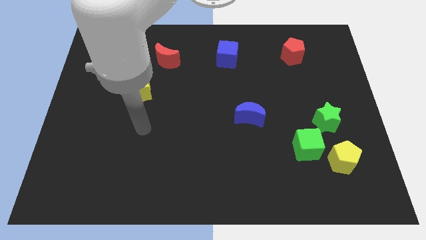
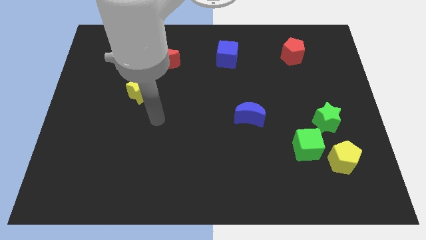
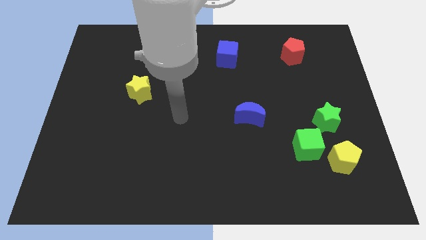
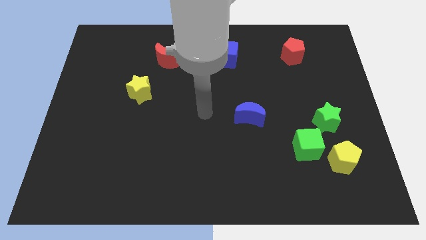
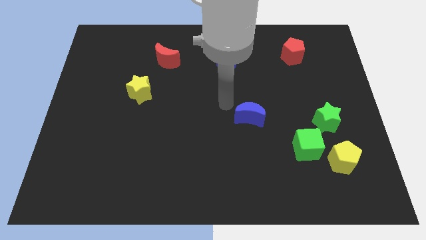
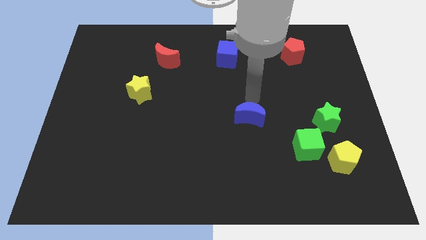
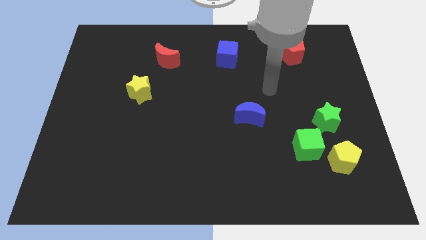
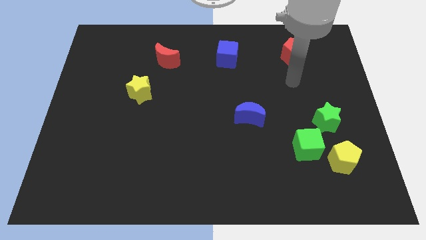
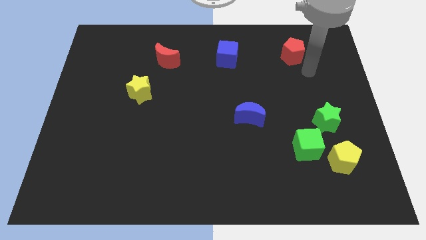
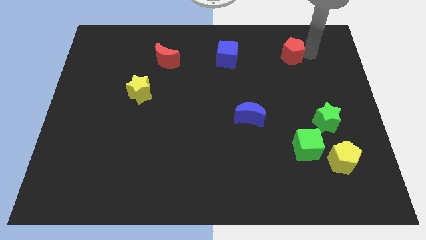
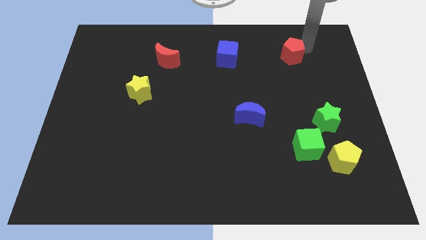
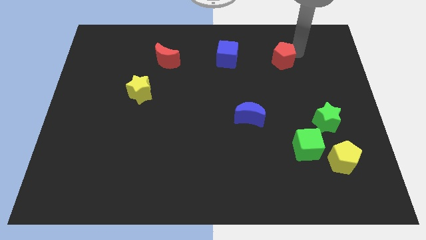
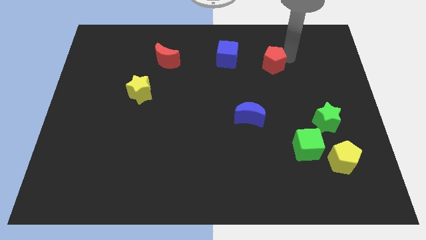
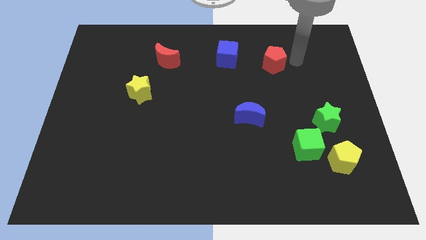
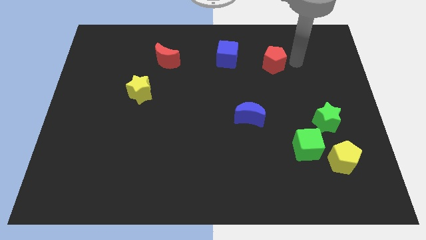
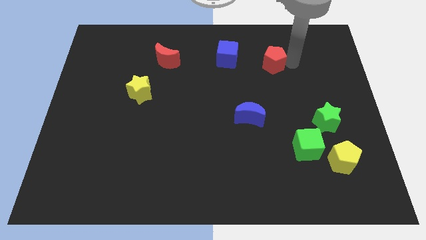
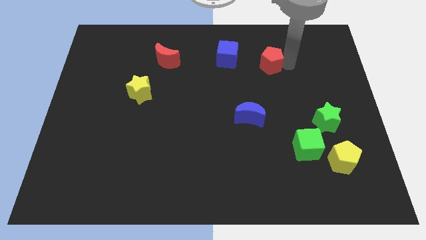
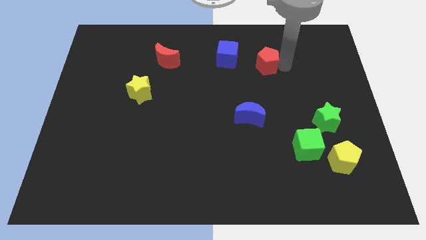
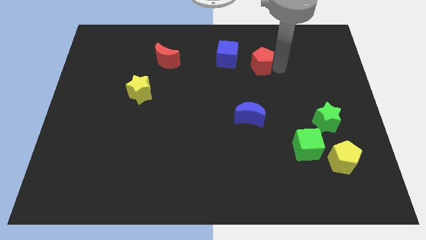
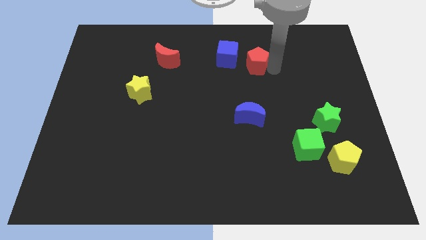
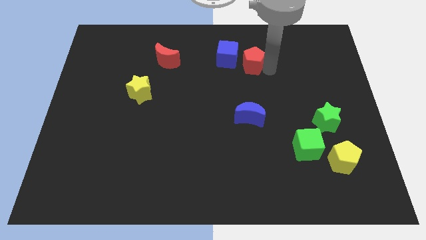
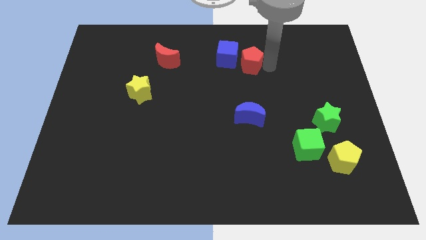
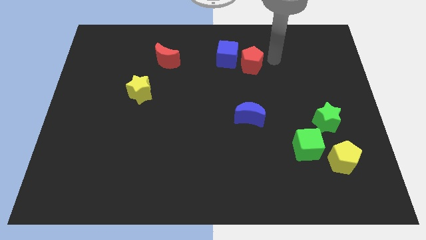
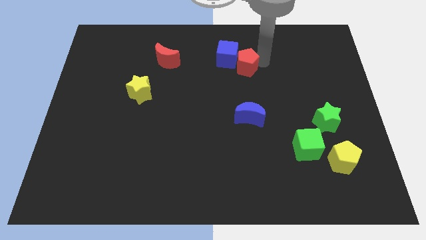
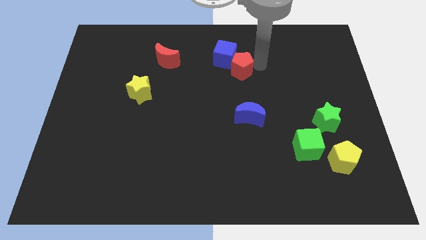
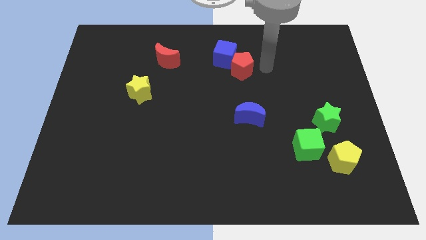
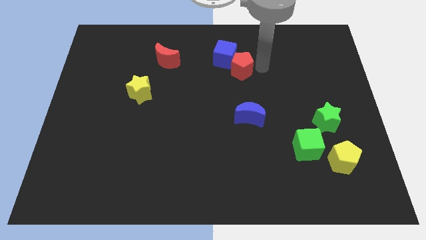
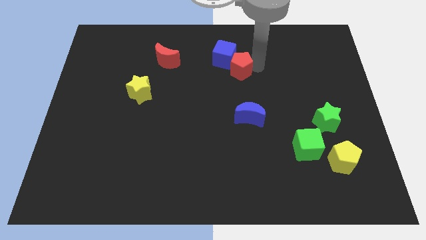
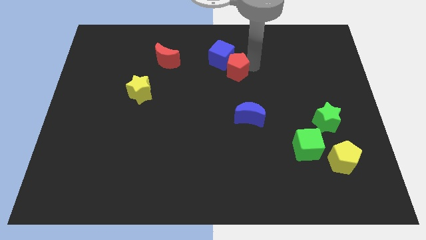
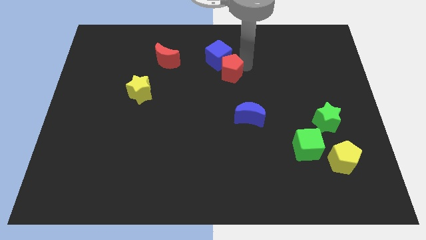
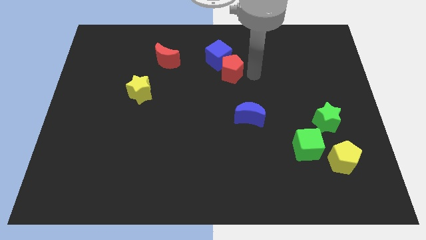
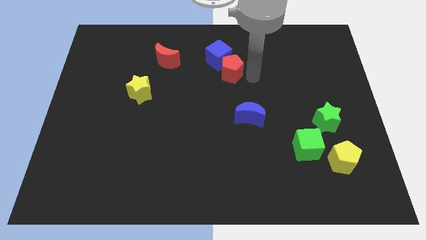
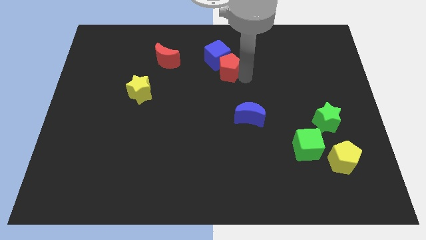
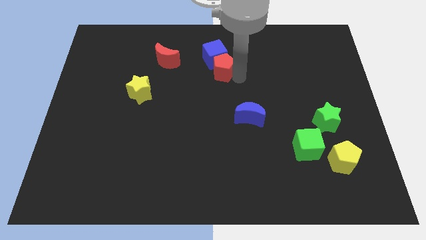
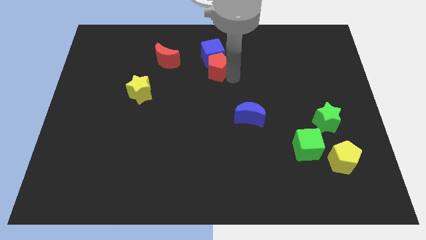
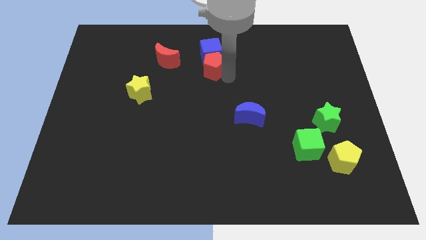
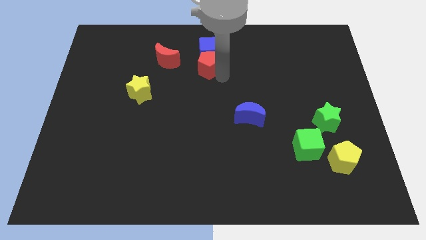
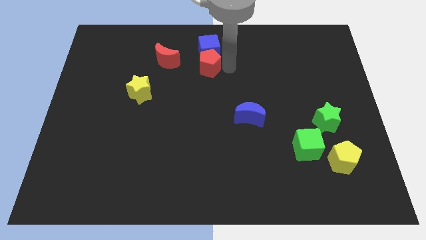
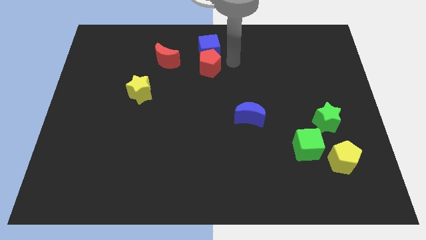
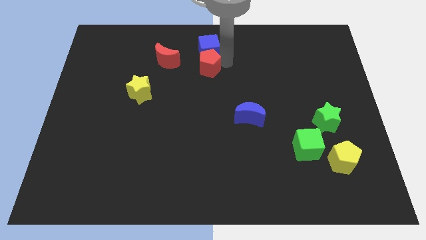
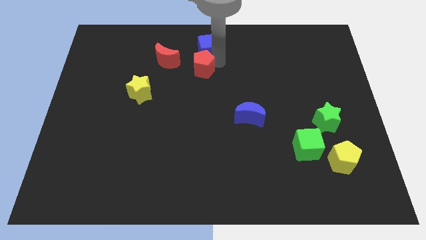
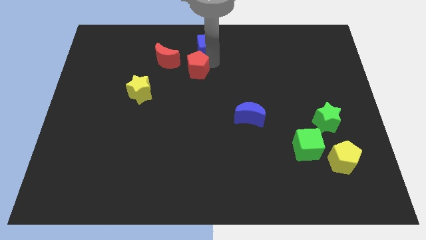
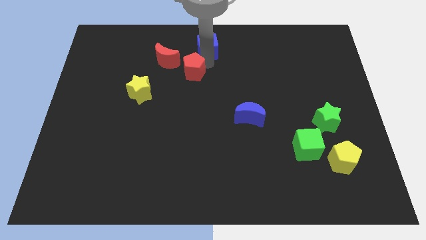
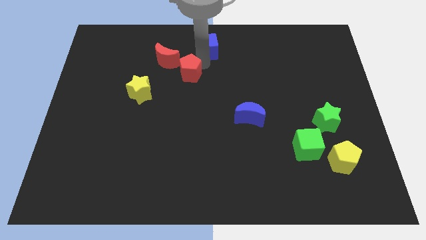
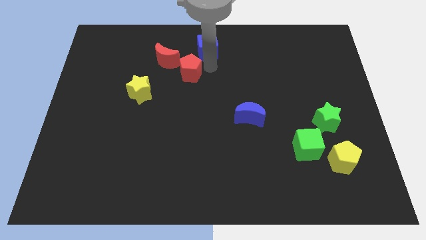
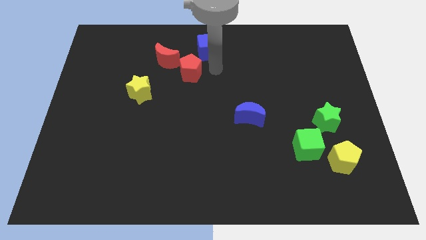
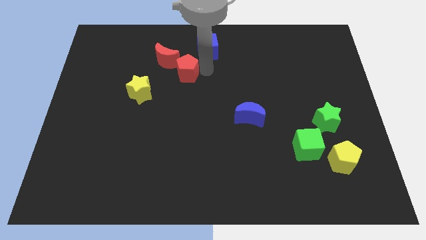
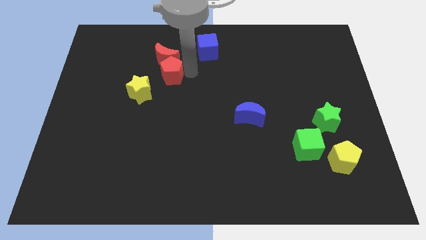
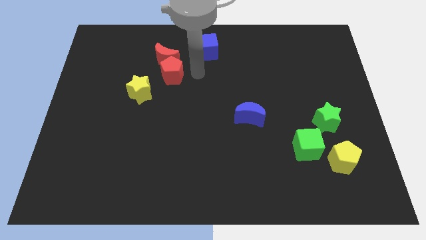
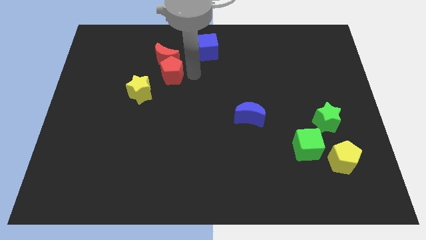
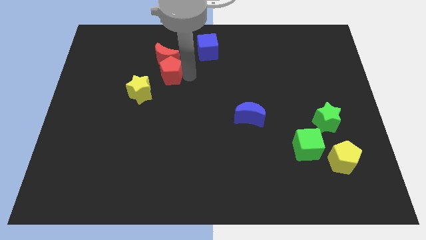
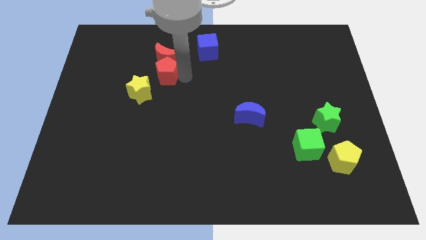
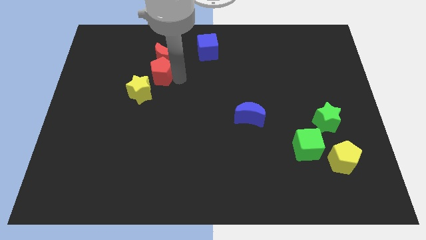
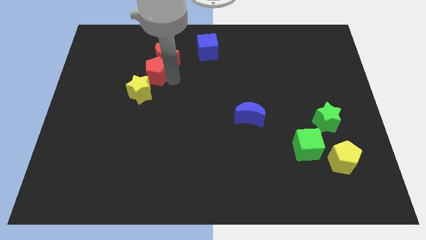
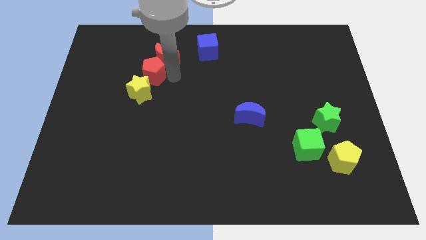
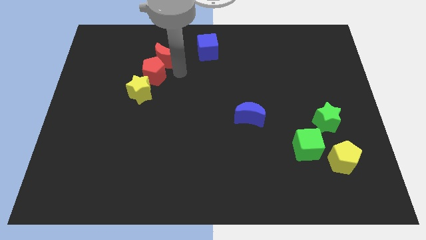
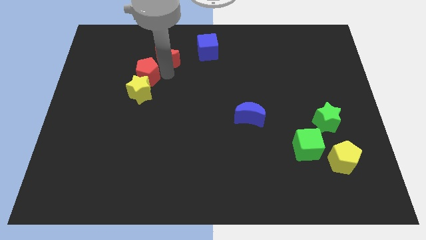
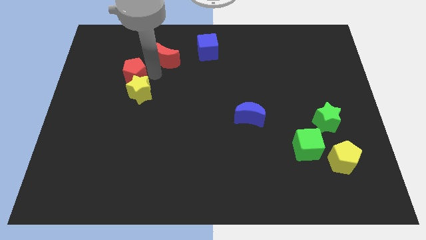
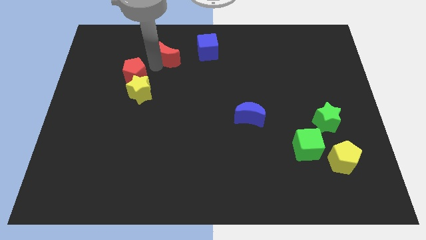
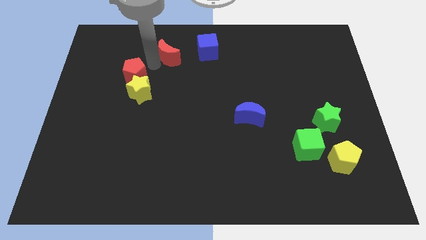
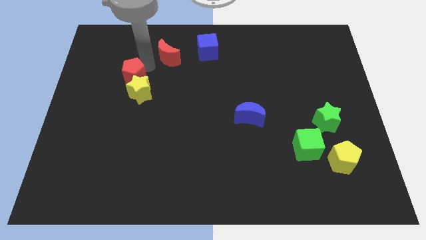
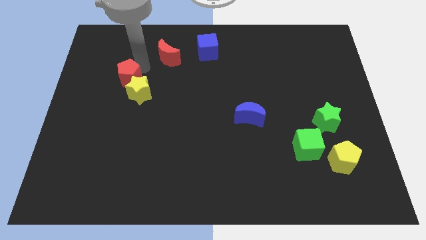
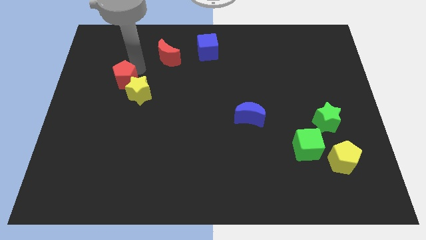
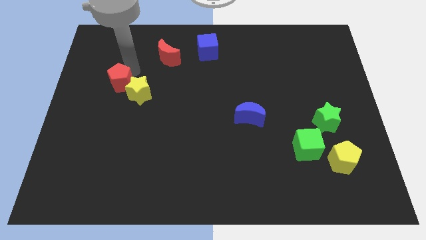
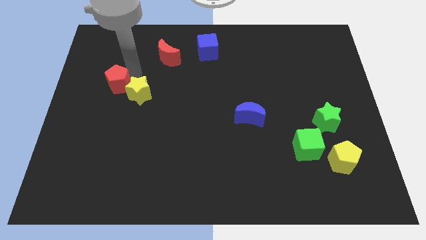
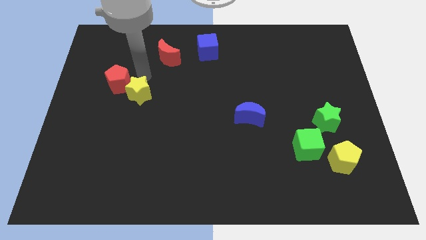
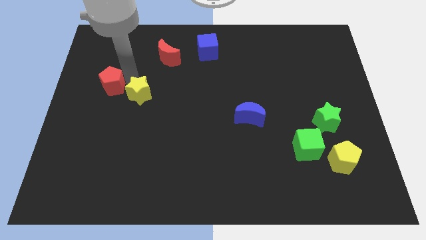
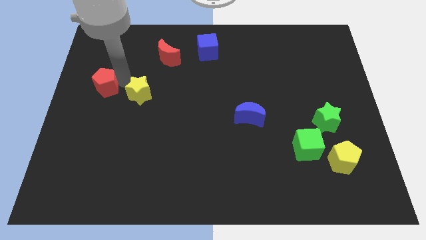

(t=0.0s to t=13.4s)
push the red pentagon to the center left

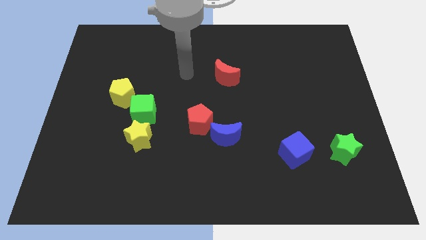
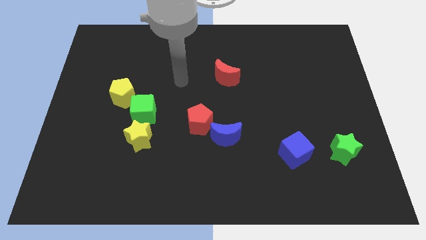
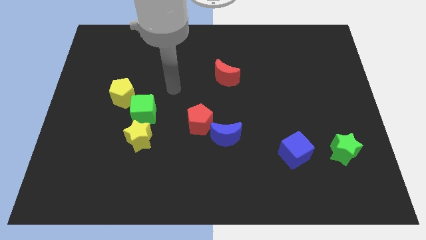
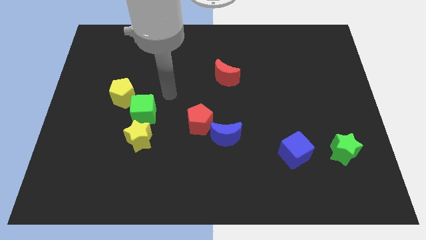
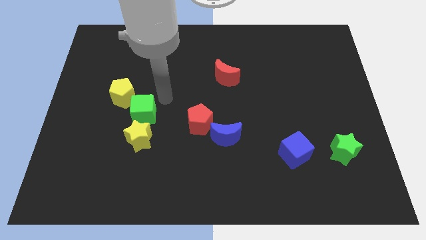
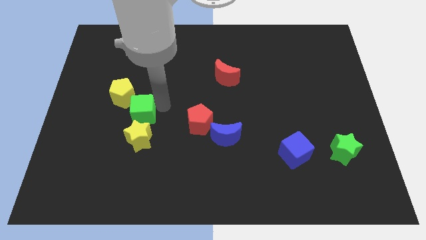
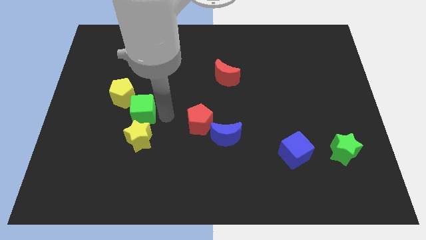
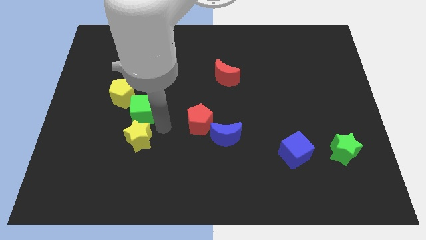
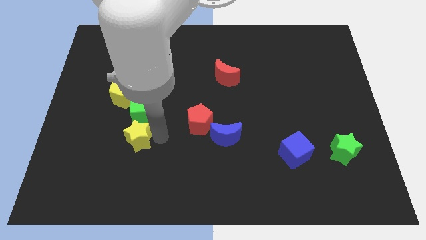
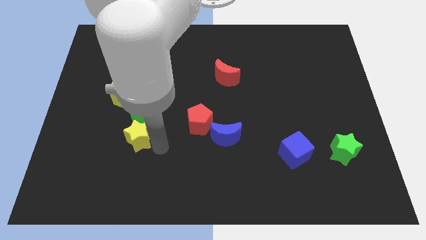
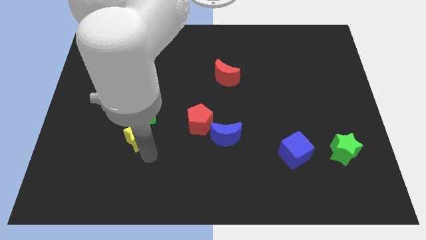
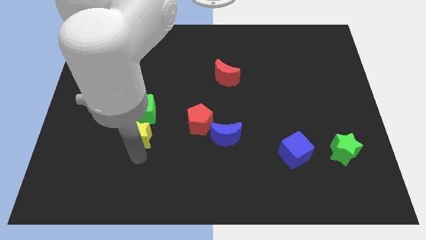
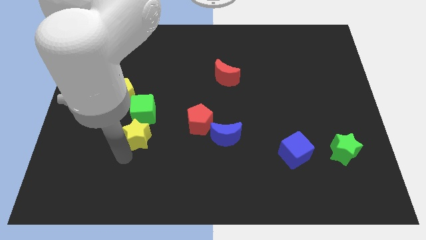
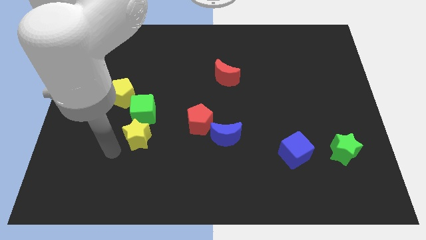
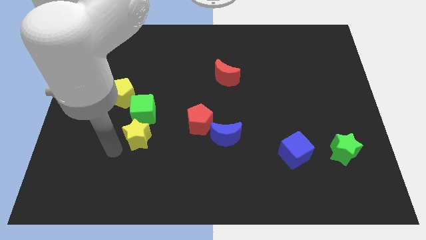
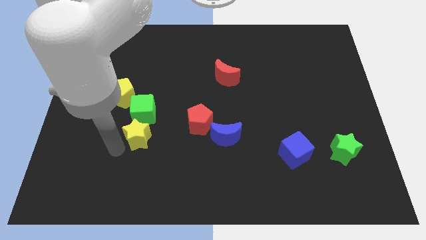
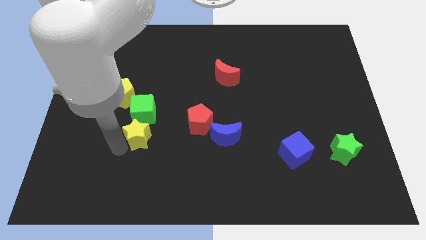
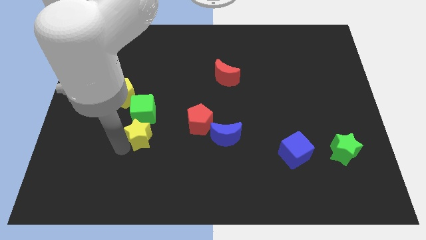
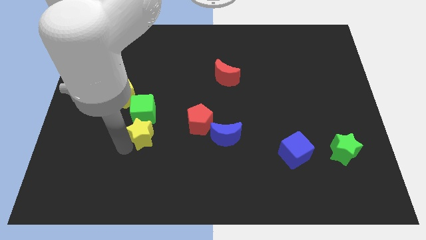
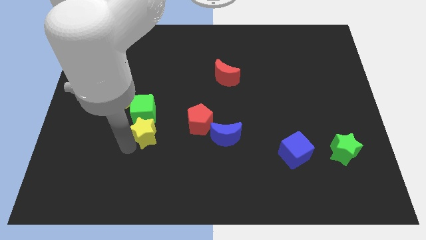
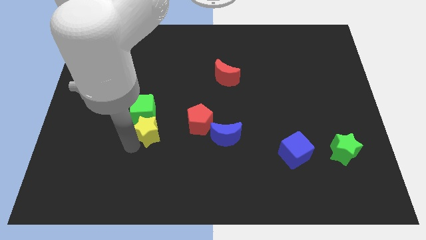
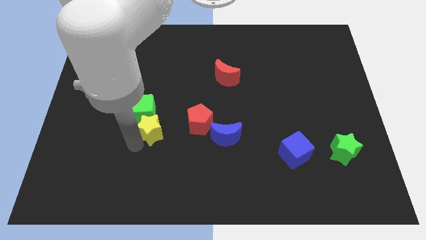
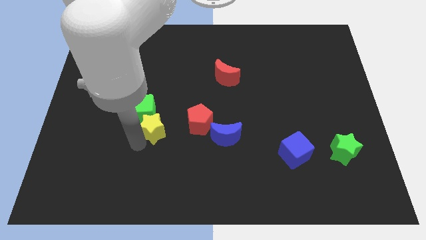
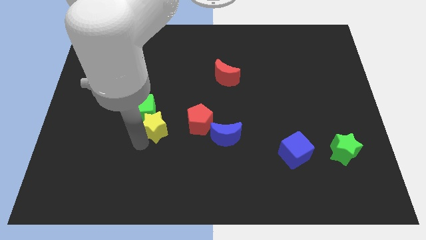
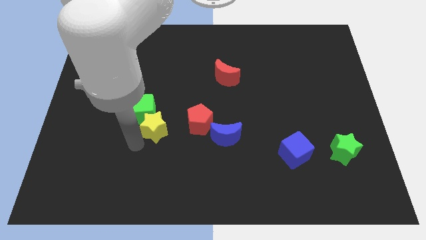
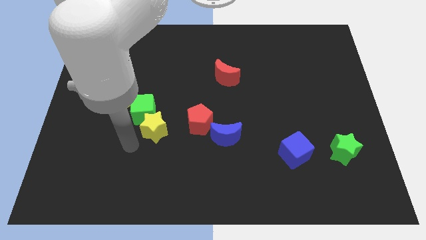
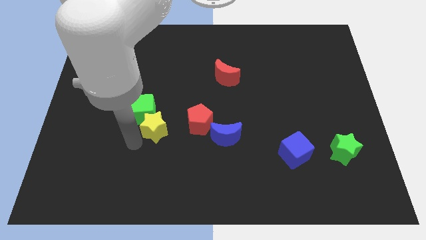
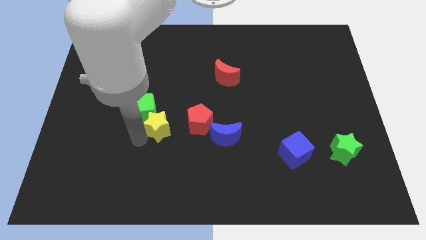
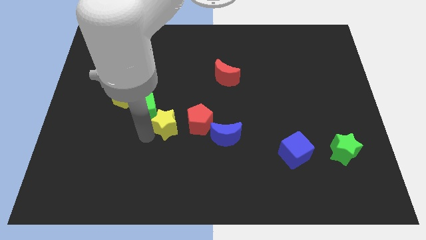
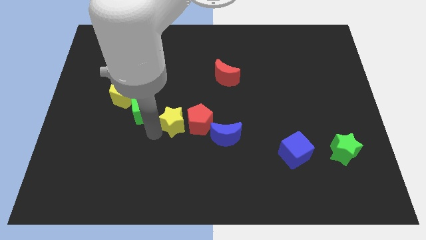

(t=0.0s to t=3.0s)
push the yellow star to the middle of the board
